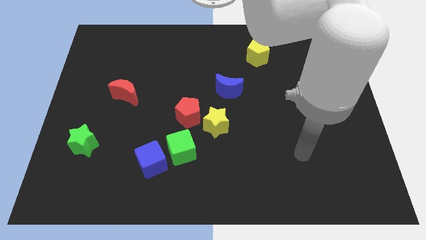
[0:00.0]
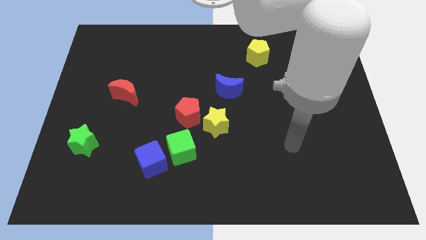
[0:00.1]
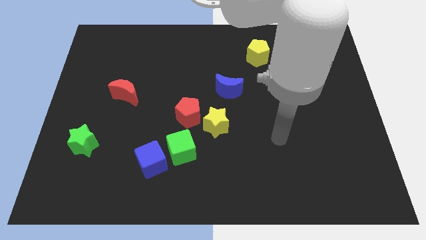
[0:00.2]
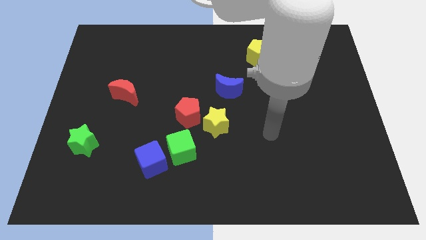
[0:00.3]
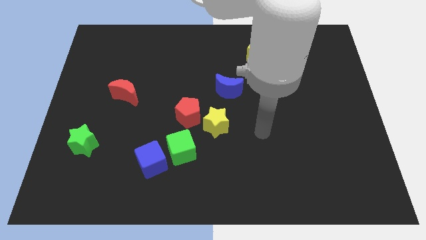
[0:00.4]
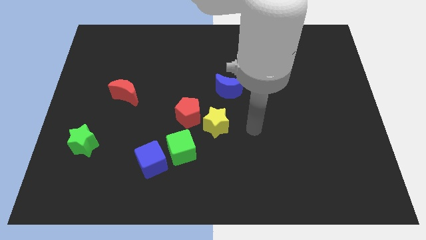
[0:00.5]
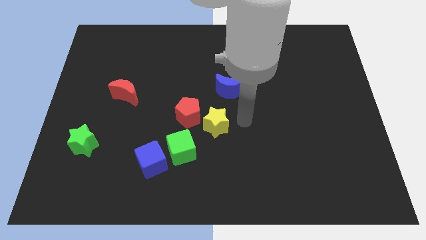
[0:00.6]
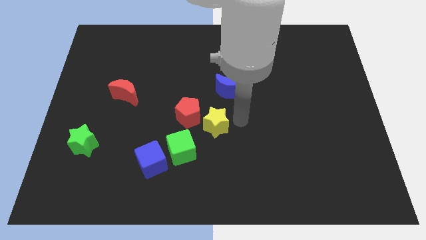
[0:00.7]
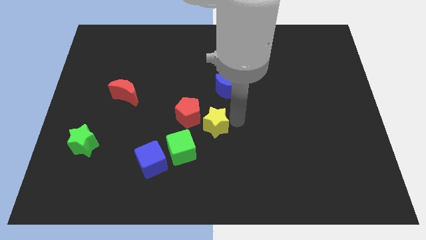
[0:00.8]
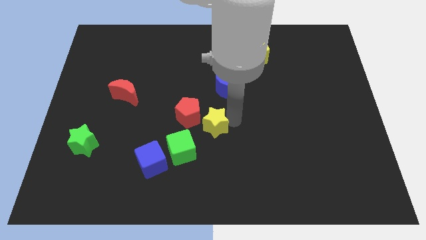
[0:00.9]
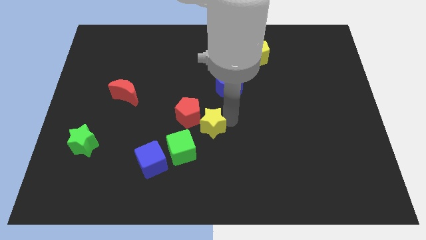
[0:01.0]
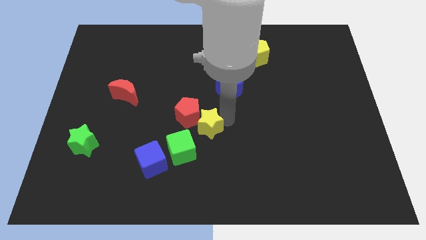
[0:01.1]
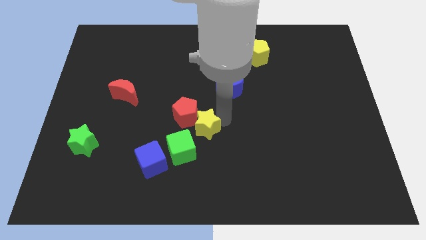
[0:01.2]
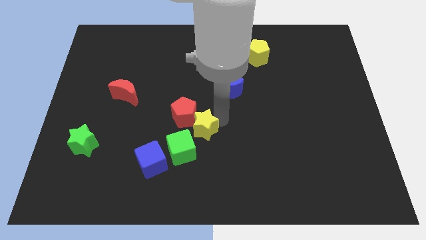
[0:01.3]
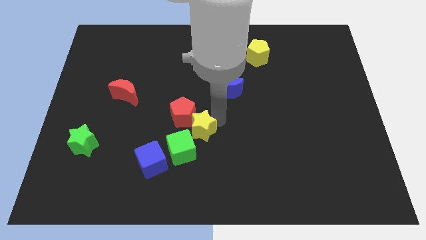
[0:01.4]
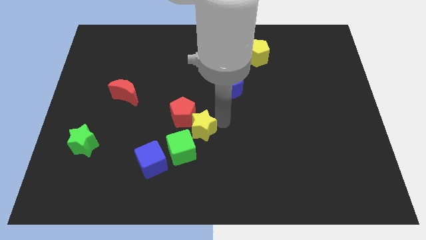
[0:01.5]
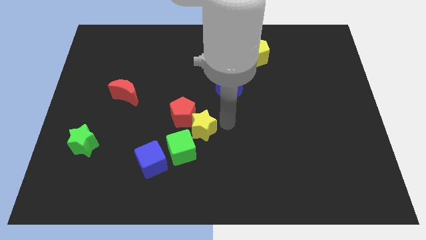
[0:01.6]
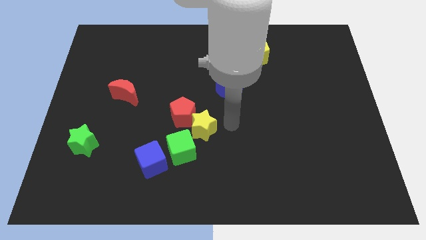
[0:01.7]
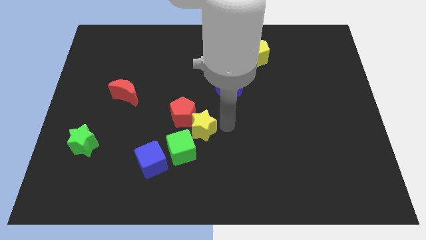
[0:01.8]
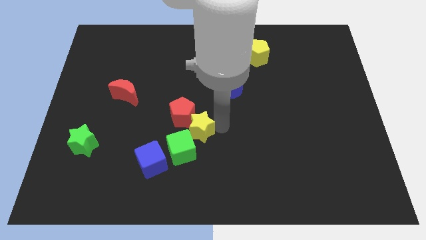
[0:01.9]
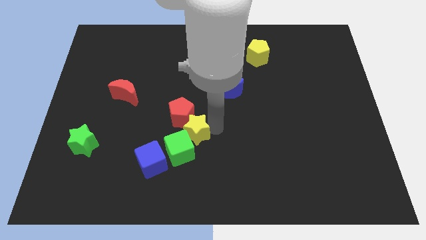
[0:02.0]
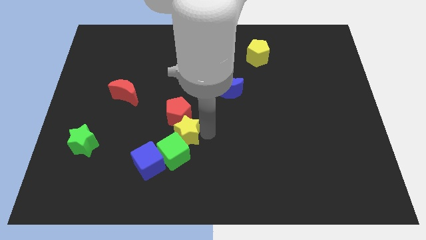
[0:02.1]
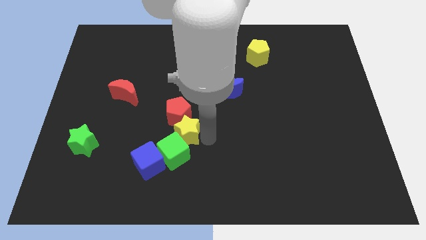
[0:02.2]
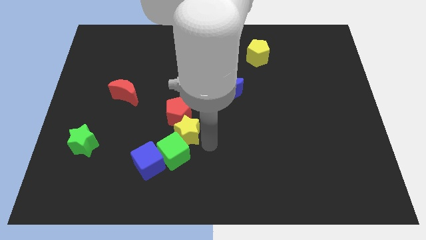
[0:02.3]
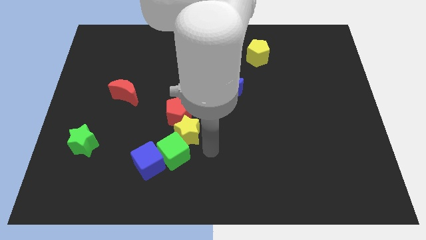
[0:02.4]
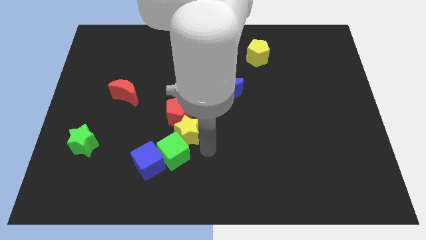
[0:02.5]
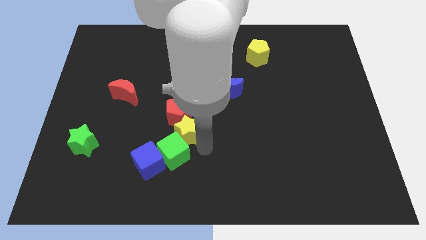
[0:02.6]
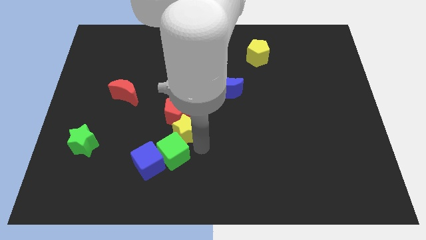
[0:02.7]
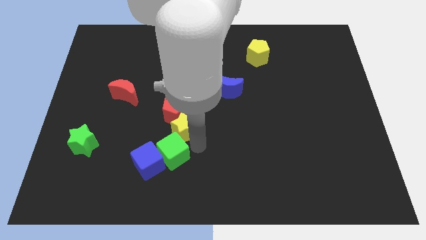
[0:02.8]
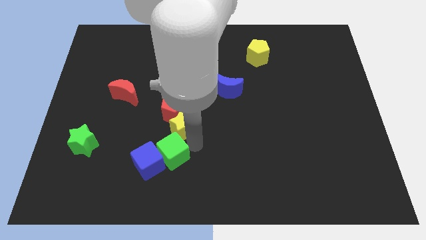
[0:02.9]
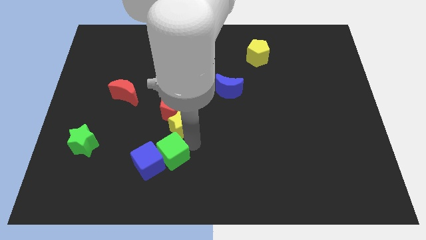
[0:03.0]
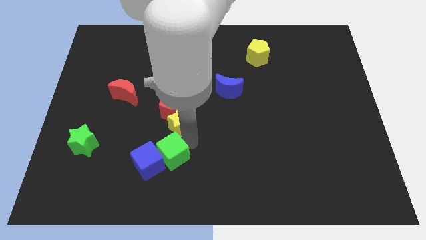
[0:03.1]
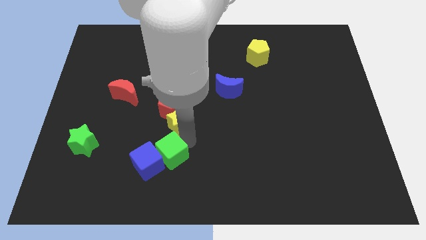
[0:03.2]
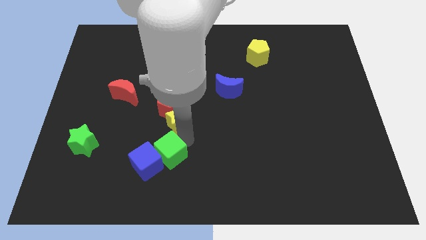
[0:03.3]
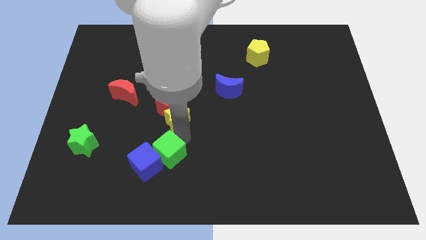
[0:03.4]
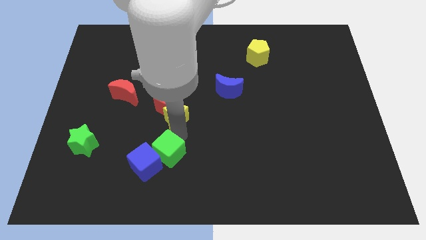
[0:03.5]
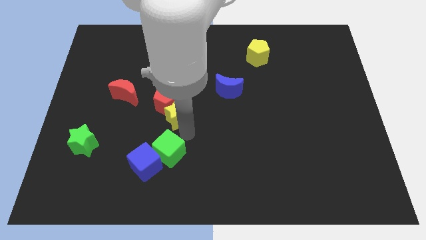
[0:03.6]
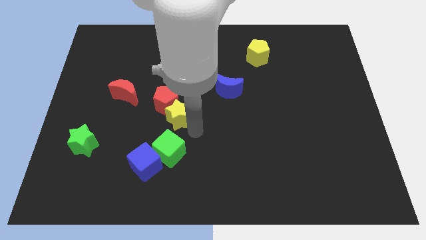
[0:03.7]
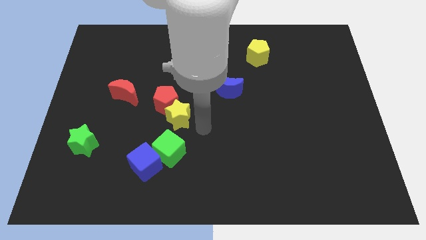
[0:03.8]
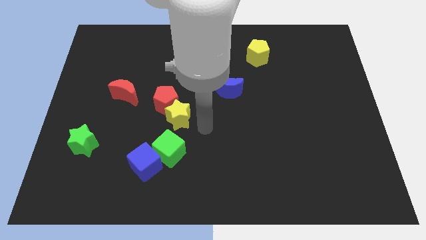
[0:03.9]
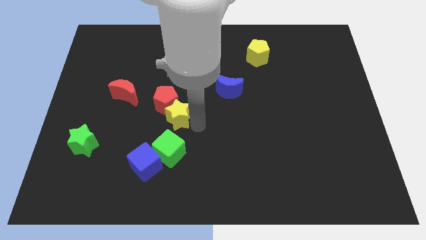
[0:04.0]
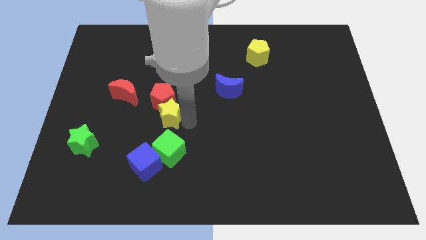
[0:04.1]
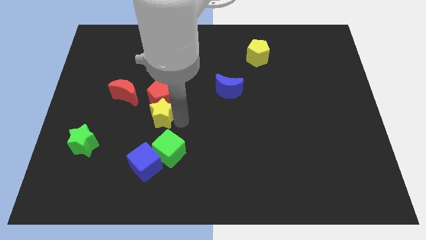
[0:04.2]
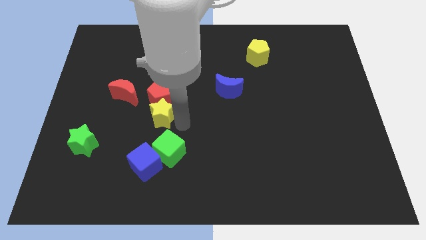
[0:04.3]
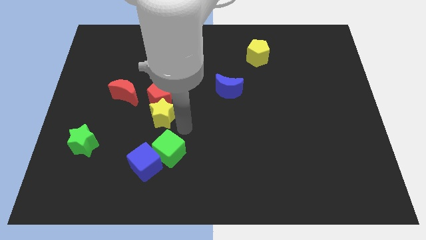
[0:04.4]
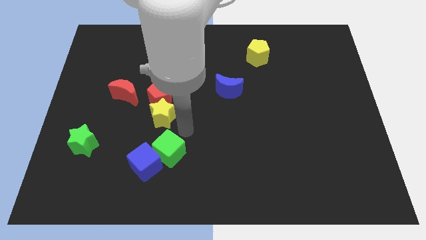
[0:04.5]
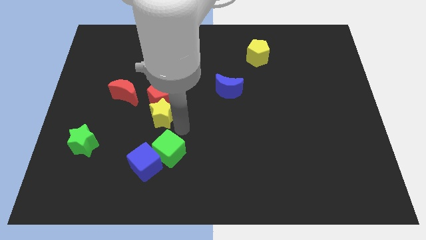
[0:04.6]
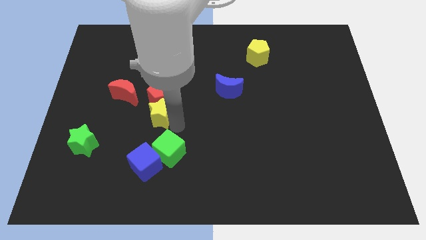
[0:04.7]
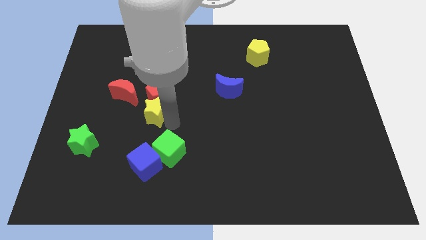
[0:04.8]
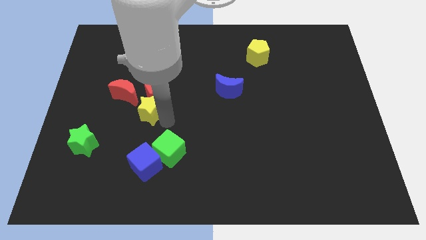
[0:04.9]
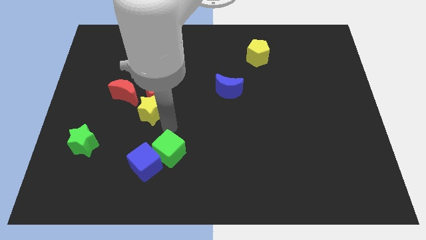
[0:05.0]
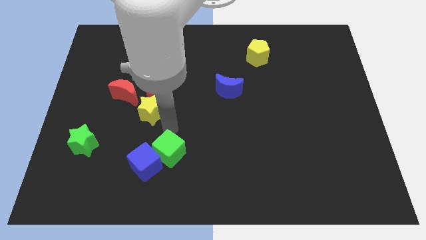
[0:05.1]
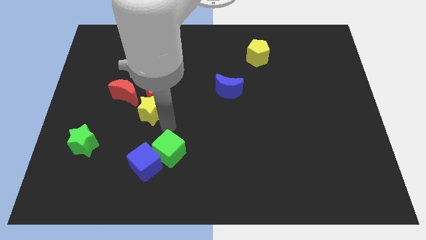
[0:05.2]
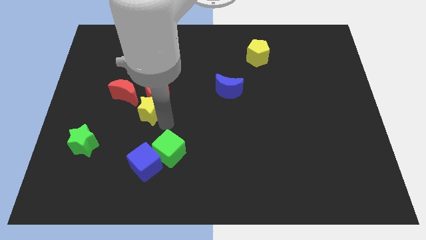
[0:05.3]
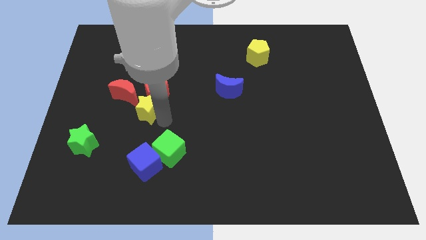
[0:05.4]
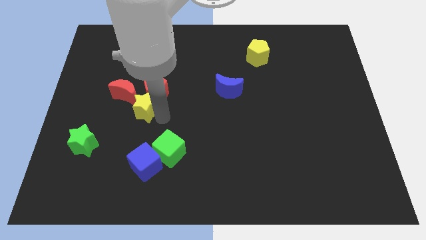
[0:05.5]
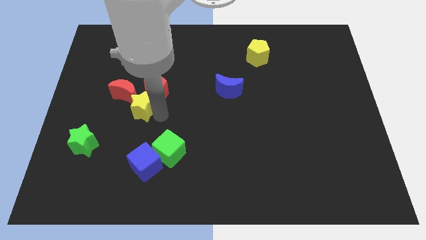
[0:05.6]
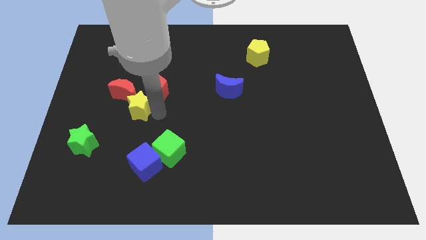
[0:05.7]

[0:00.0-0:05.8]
move the yellow star towards the red moon

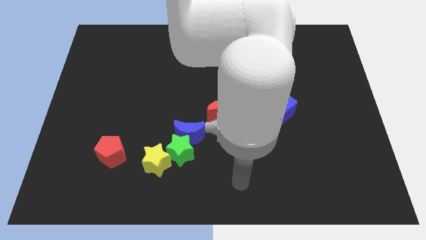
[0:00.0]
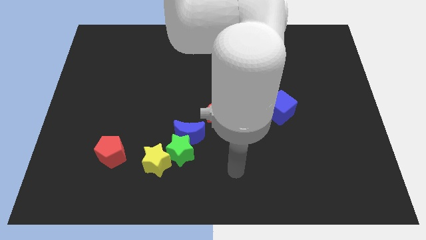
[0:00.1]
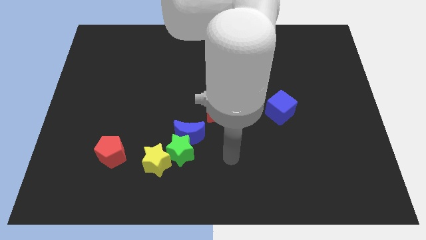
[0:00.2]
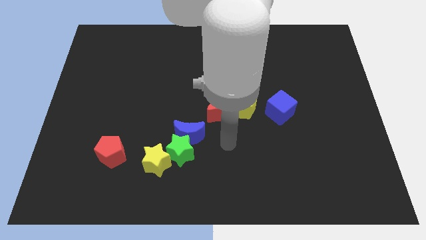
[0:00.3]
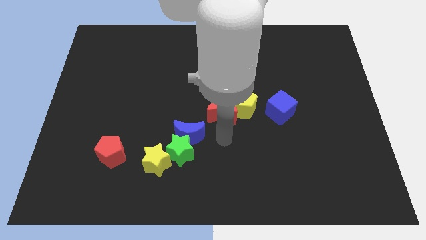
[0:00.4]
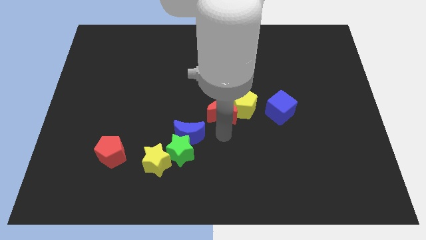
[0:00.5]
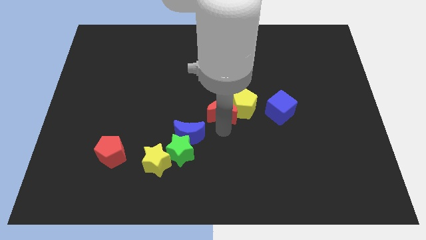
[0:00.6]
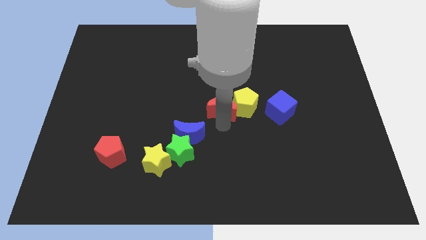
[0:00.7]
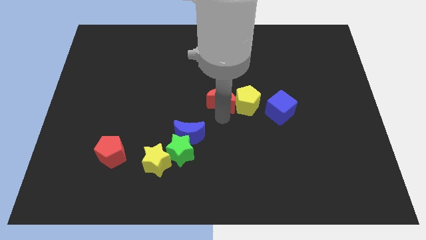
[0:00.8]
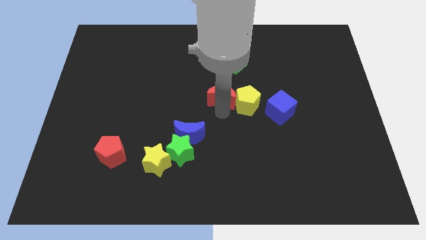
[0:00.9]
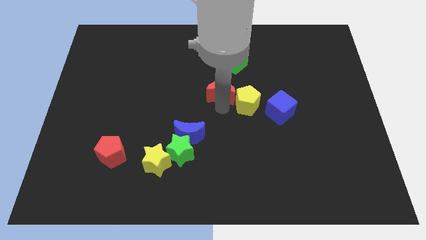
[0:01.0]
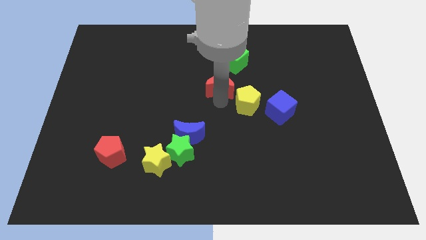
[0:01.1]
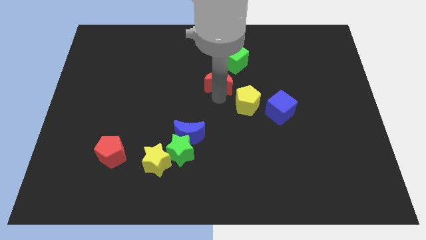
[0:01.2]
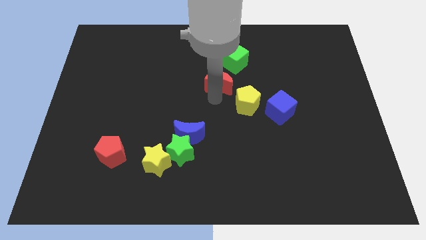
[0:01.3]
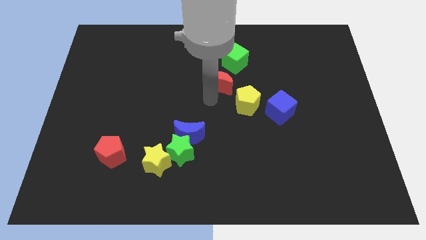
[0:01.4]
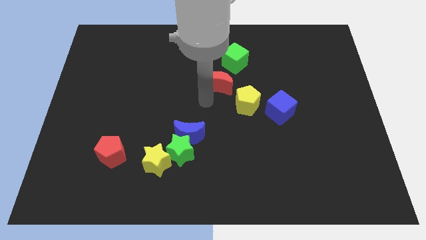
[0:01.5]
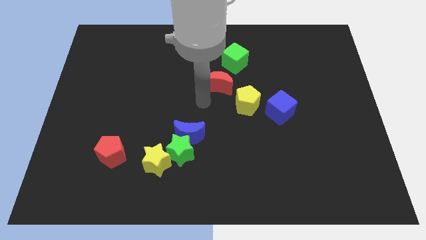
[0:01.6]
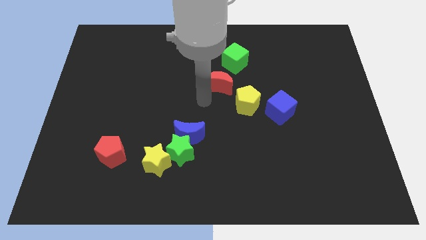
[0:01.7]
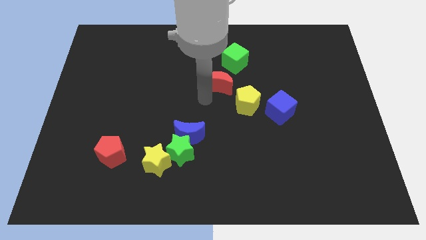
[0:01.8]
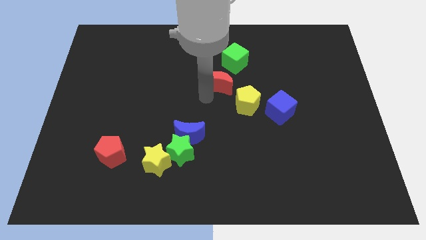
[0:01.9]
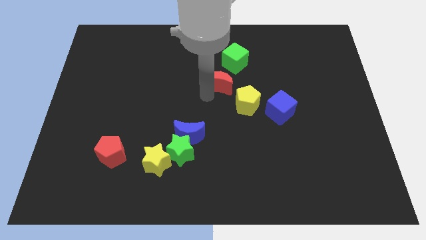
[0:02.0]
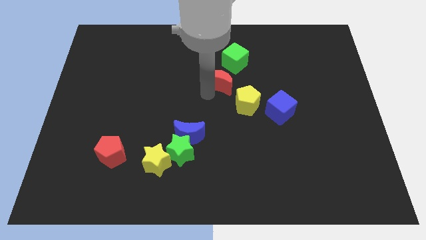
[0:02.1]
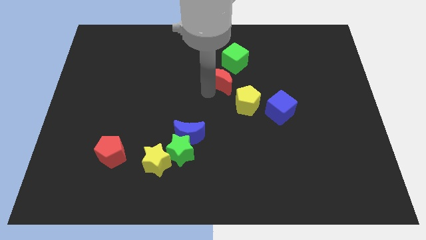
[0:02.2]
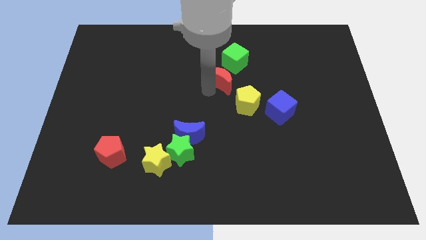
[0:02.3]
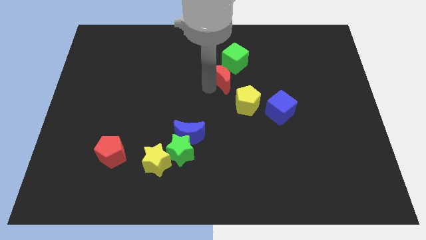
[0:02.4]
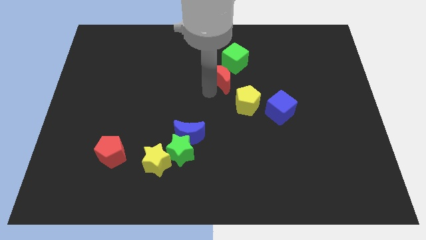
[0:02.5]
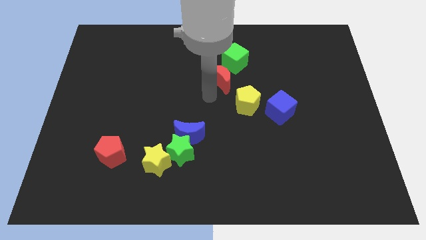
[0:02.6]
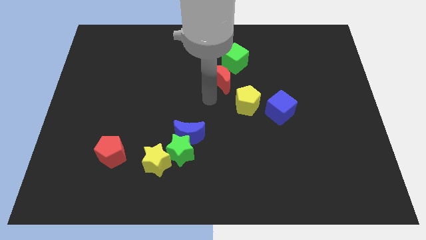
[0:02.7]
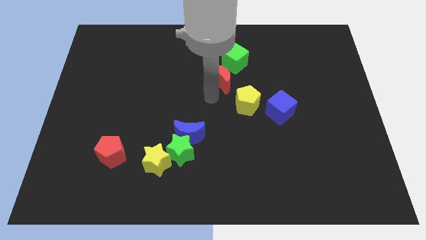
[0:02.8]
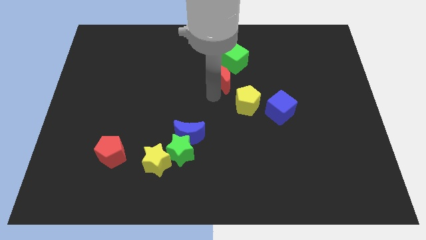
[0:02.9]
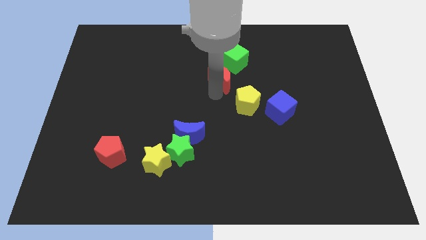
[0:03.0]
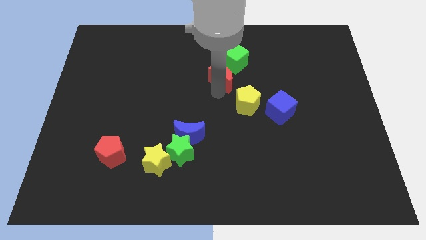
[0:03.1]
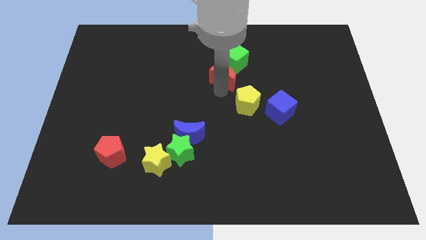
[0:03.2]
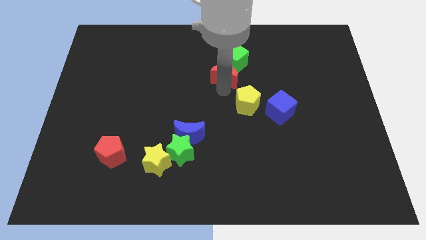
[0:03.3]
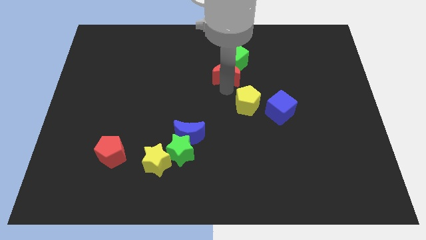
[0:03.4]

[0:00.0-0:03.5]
push the red moon next to the green cube
